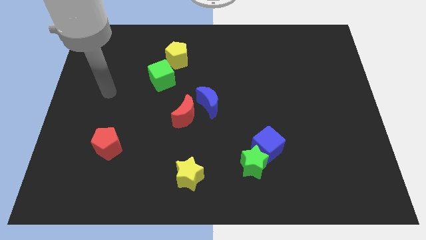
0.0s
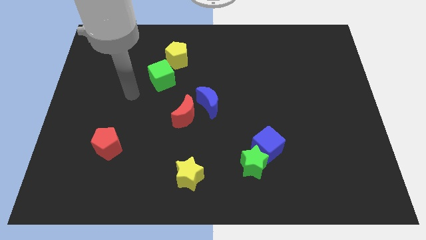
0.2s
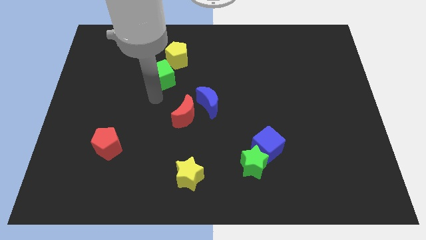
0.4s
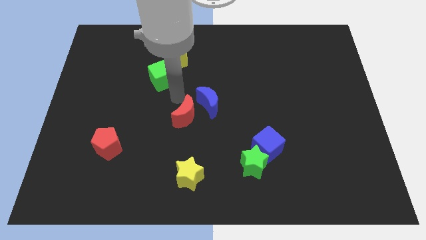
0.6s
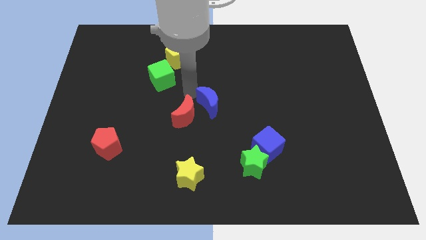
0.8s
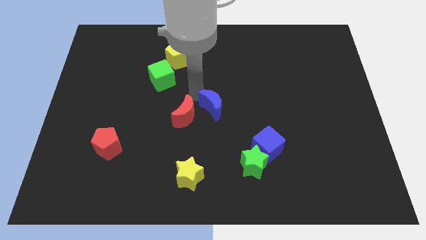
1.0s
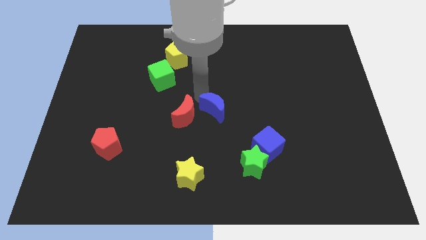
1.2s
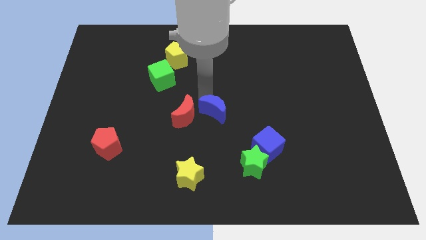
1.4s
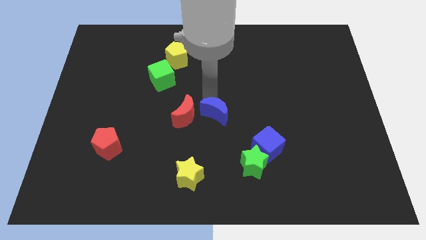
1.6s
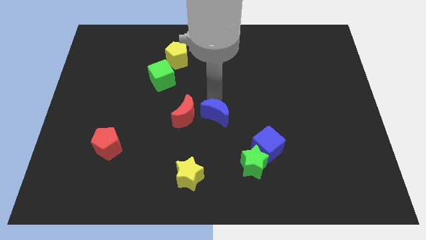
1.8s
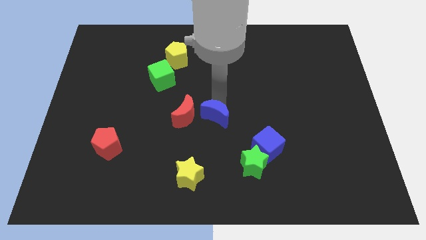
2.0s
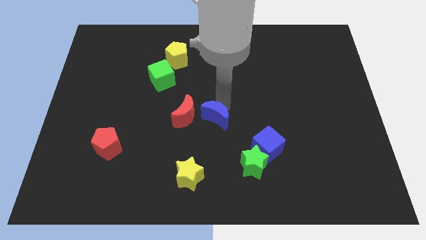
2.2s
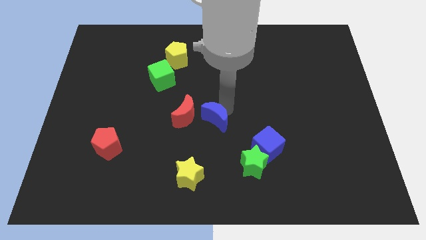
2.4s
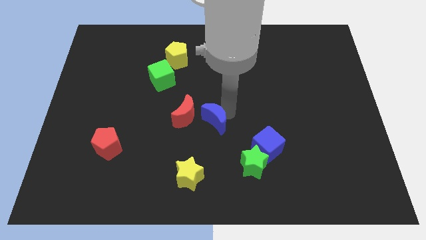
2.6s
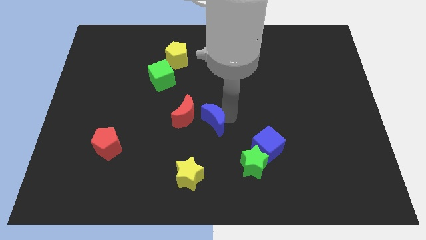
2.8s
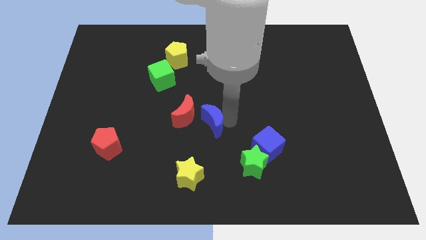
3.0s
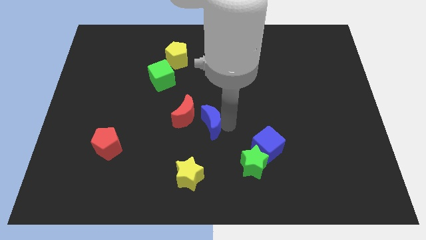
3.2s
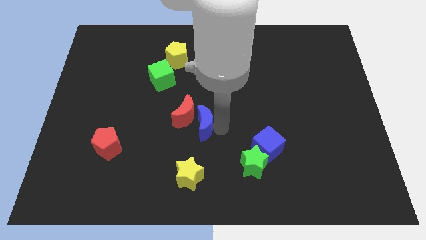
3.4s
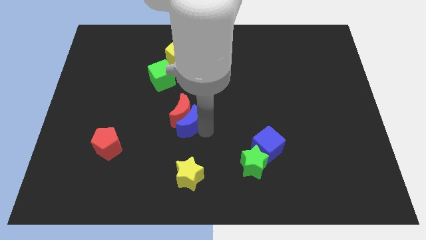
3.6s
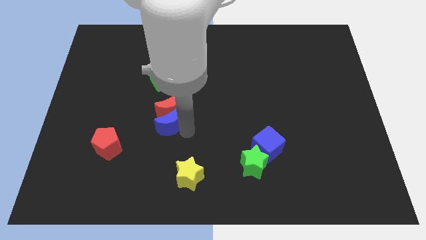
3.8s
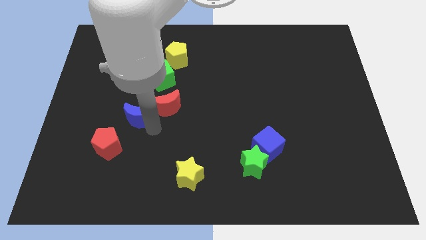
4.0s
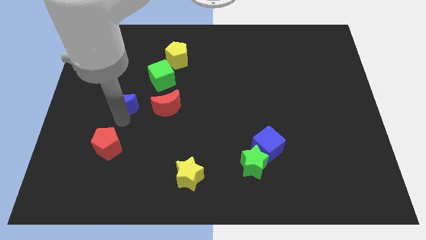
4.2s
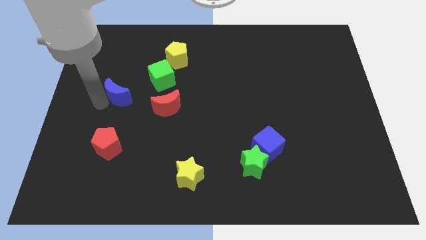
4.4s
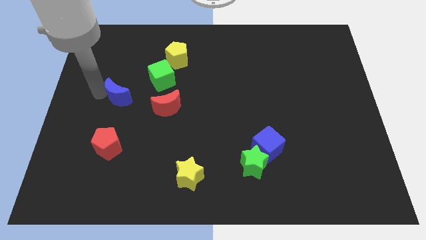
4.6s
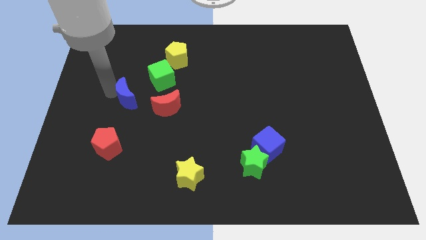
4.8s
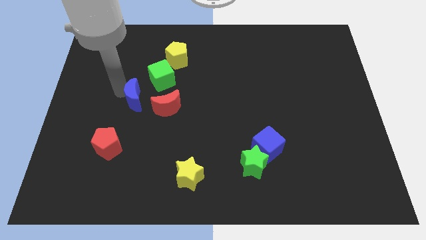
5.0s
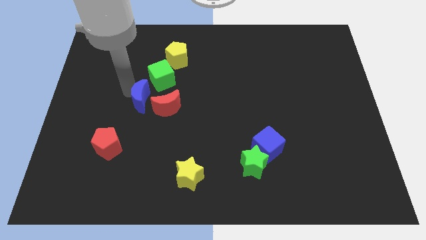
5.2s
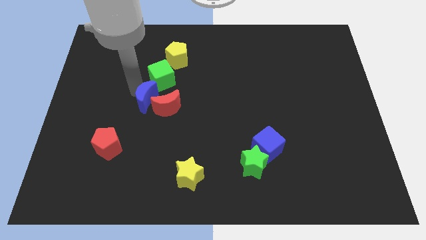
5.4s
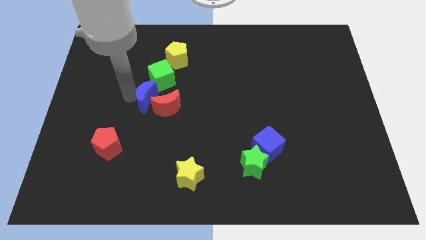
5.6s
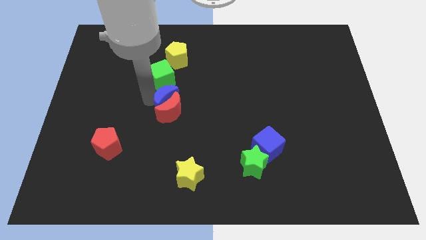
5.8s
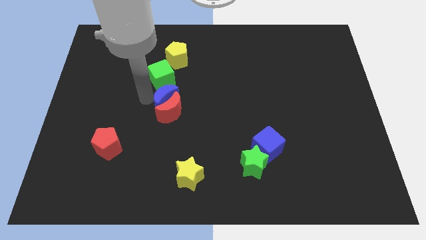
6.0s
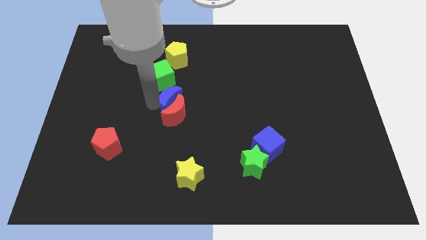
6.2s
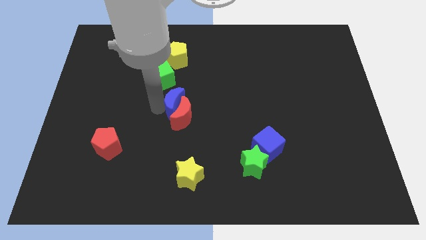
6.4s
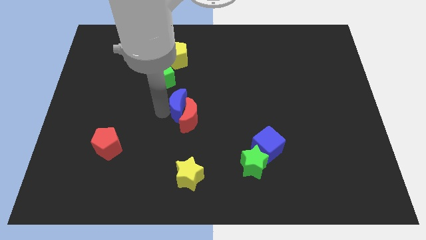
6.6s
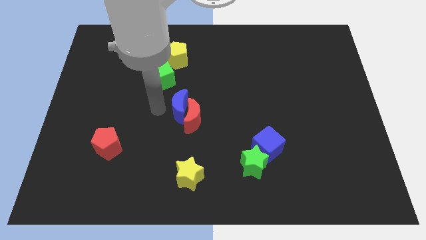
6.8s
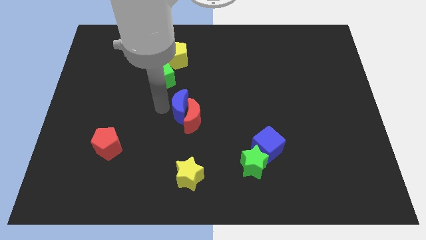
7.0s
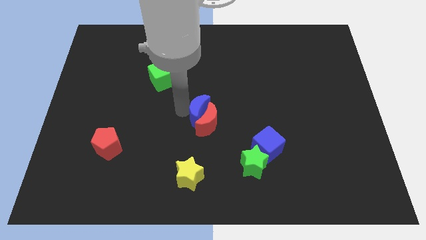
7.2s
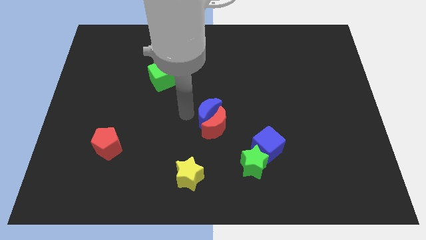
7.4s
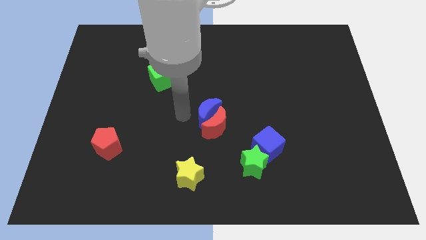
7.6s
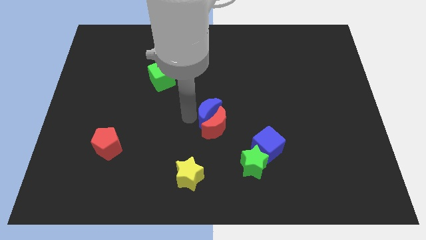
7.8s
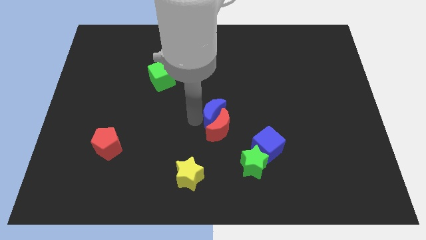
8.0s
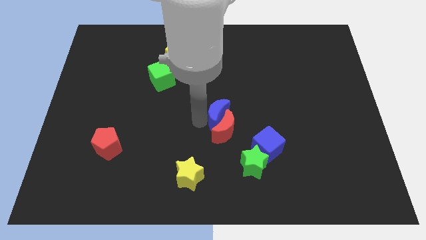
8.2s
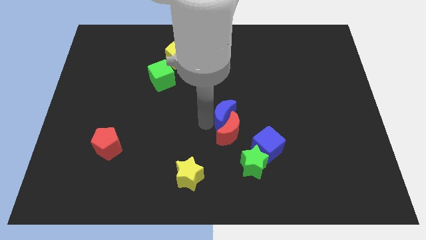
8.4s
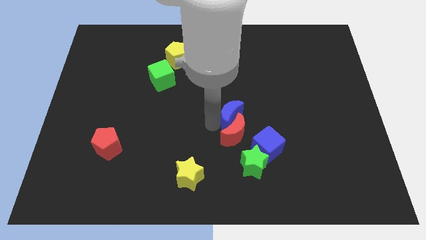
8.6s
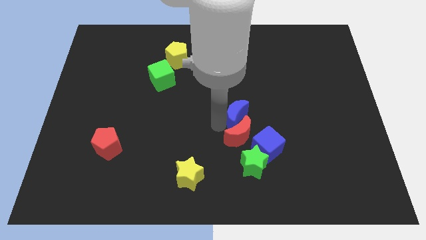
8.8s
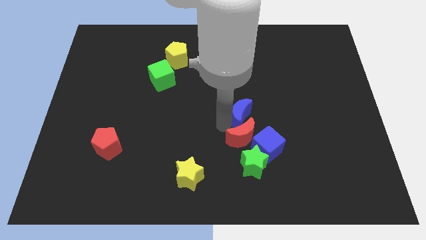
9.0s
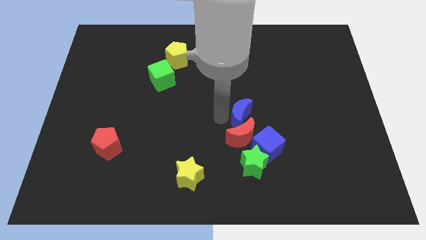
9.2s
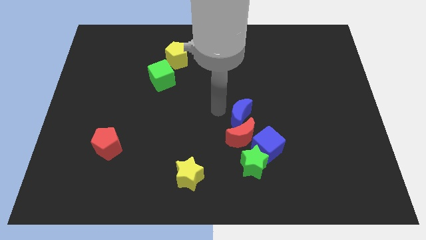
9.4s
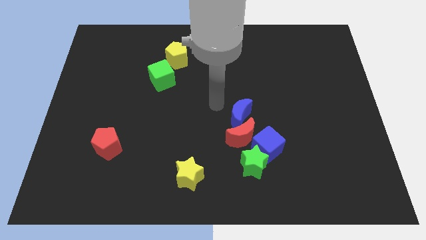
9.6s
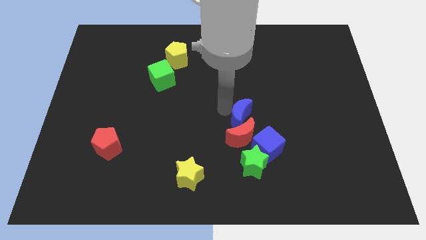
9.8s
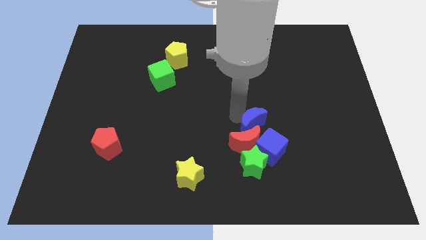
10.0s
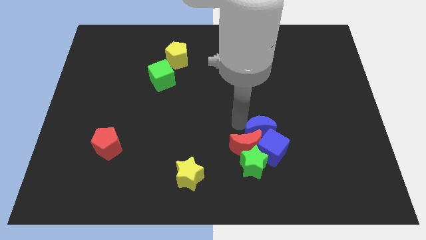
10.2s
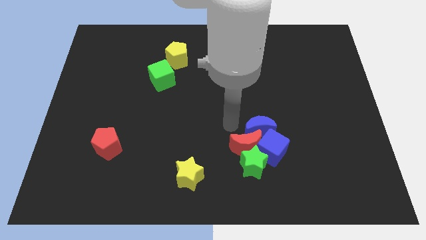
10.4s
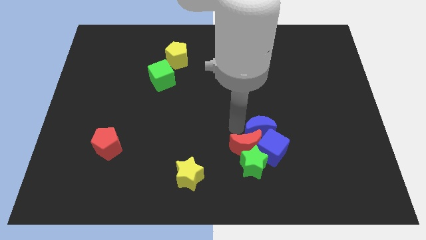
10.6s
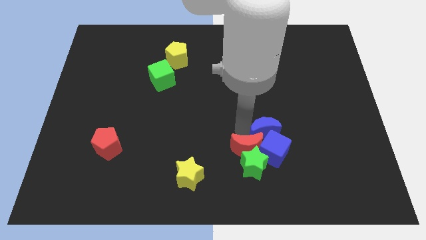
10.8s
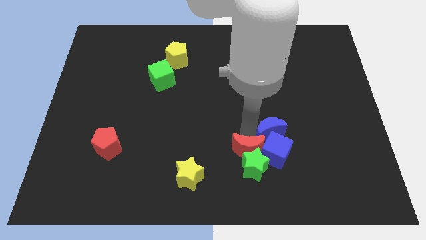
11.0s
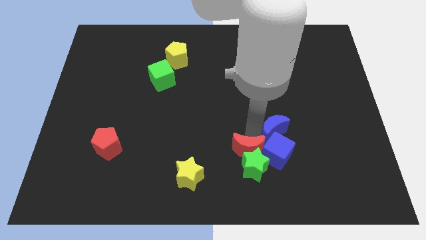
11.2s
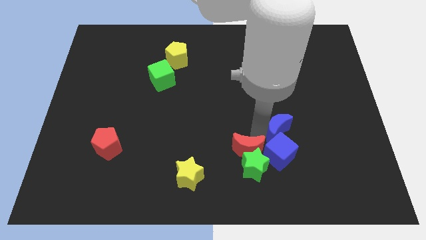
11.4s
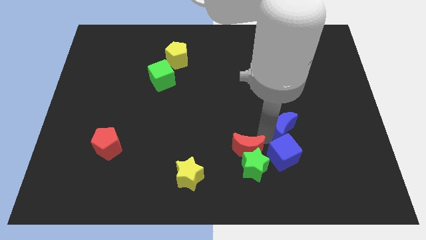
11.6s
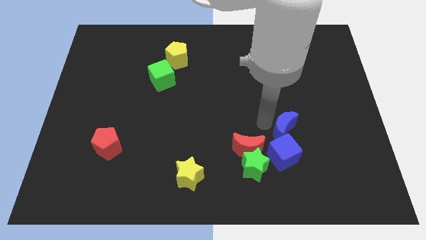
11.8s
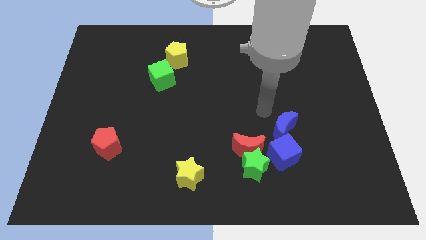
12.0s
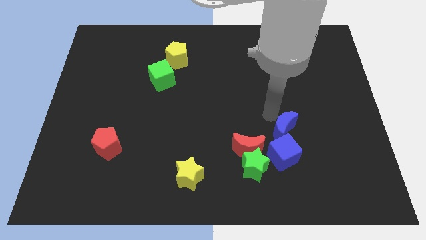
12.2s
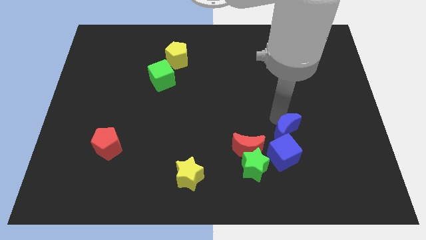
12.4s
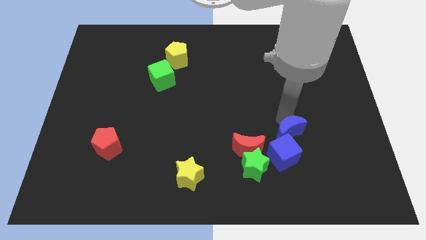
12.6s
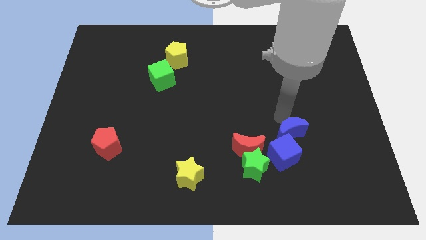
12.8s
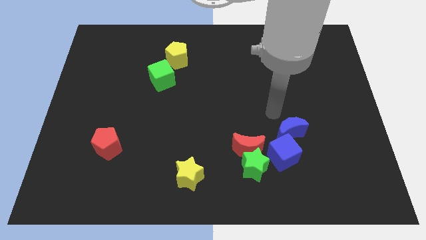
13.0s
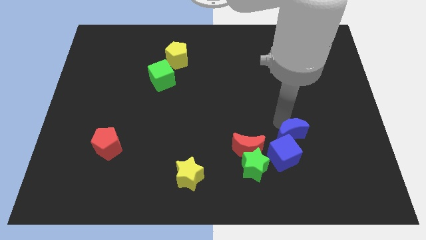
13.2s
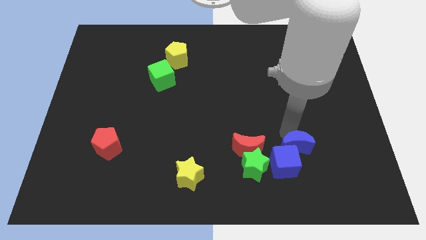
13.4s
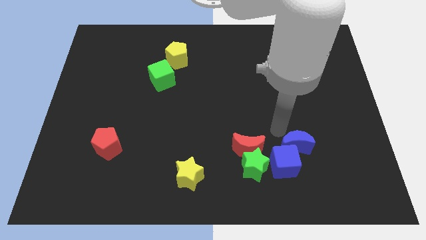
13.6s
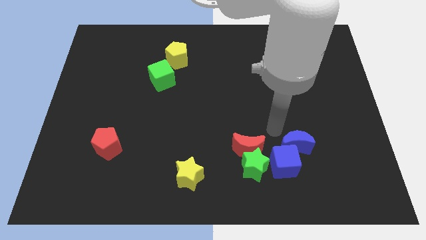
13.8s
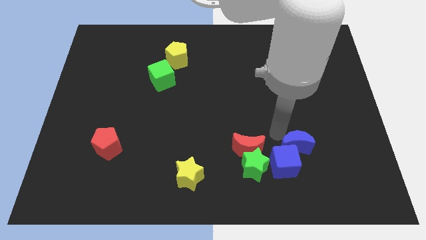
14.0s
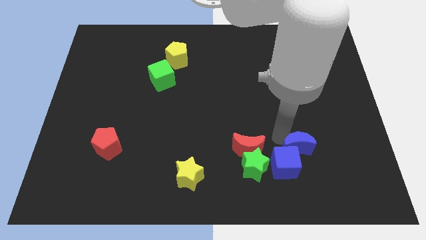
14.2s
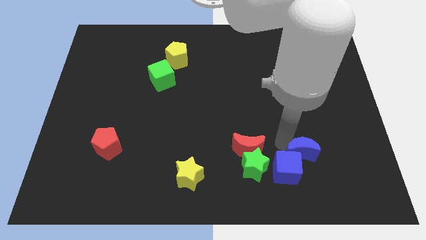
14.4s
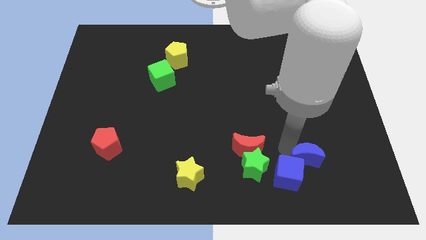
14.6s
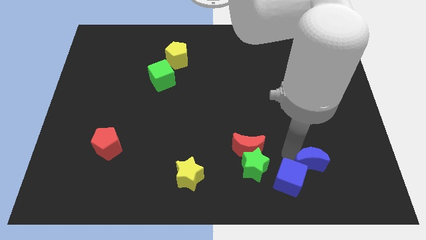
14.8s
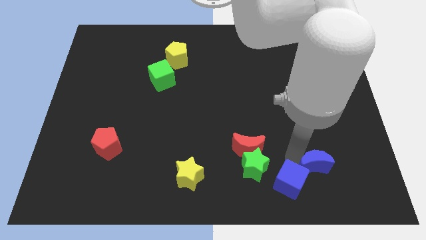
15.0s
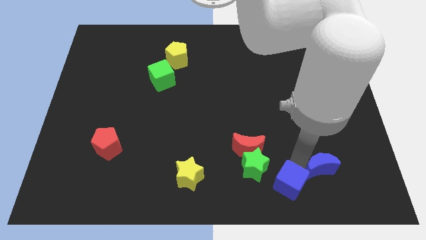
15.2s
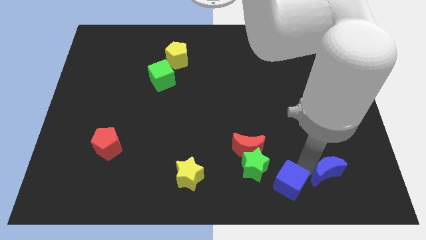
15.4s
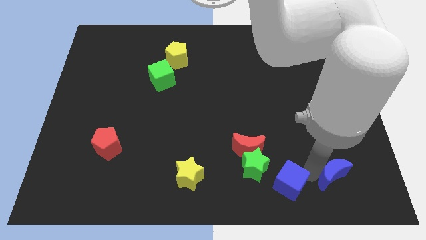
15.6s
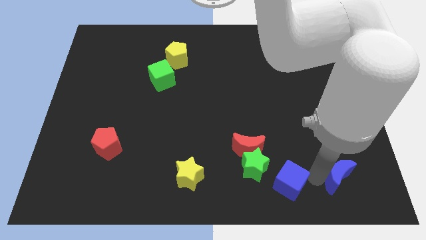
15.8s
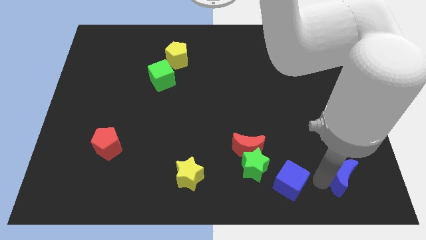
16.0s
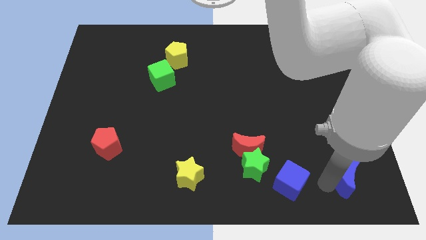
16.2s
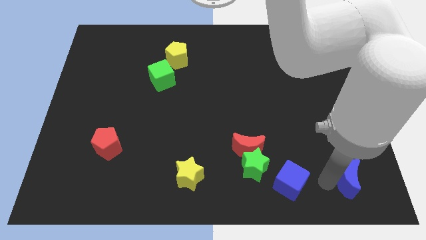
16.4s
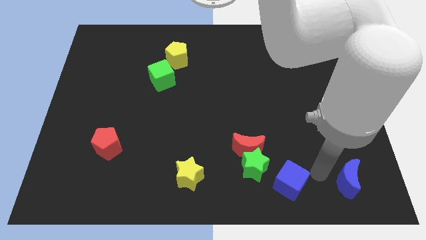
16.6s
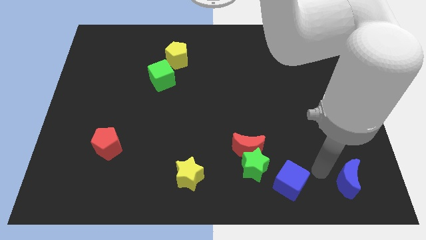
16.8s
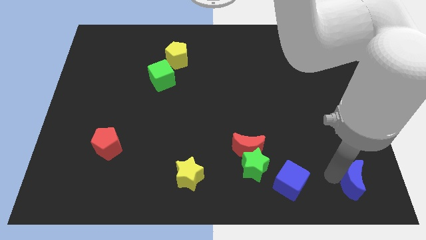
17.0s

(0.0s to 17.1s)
push the blue moon to the bottom right
